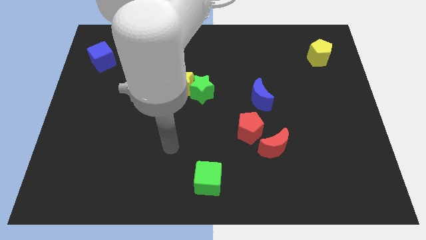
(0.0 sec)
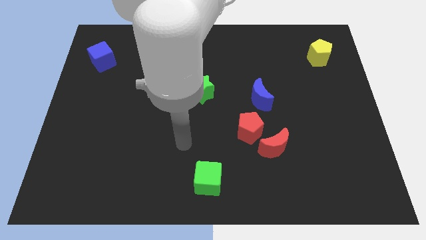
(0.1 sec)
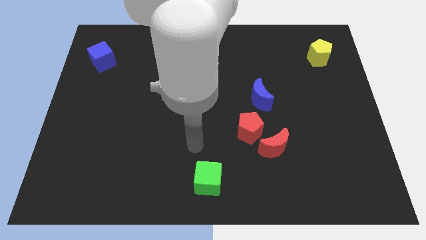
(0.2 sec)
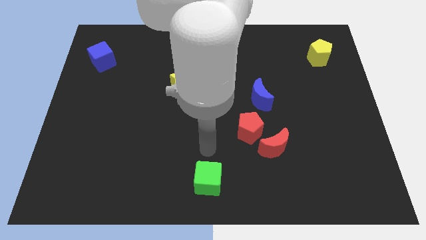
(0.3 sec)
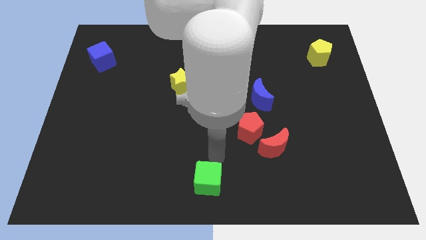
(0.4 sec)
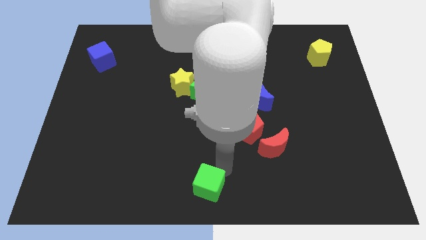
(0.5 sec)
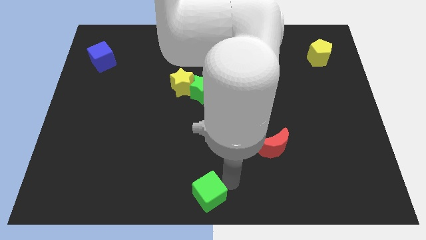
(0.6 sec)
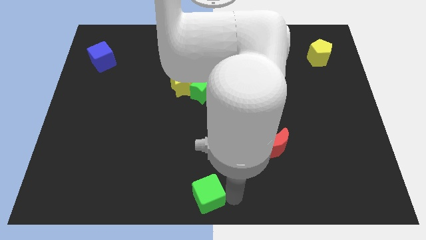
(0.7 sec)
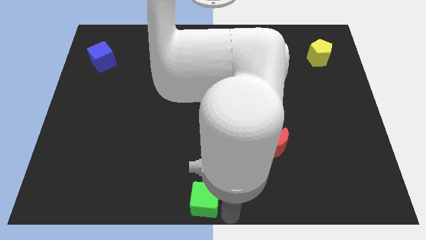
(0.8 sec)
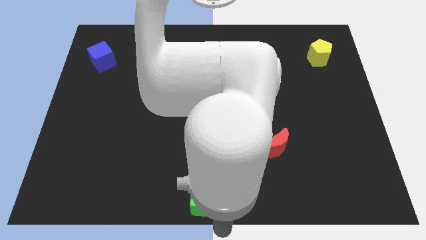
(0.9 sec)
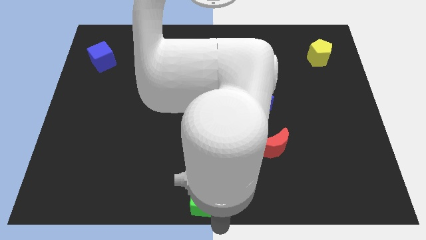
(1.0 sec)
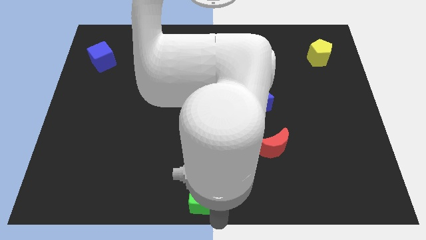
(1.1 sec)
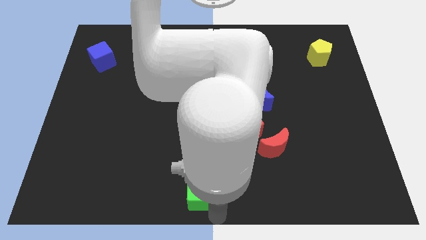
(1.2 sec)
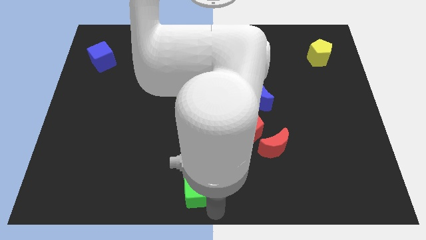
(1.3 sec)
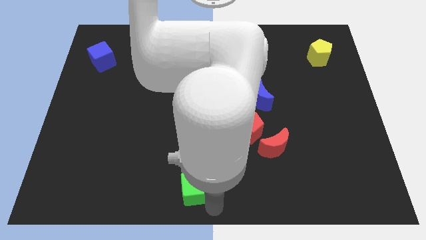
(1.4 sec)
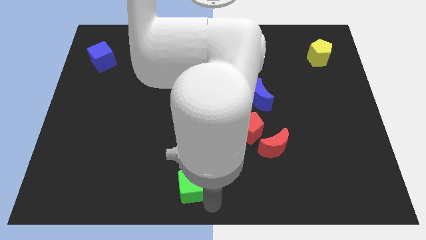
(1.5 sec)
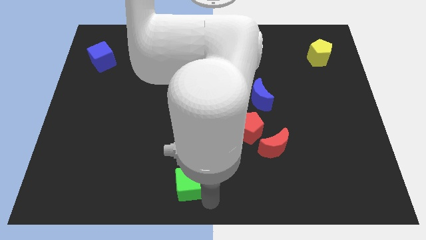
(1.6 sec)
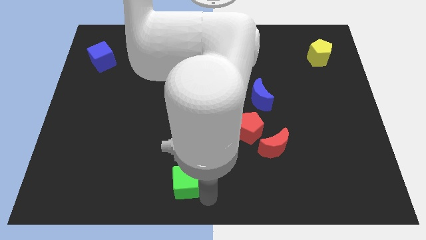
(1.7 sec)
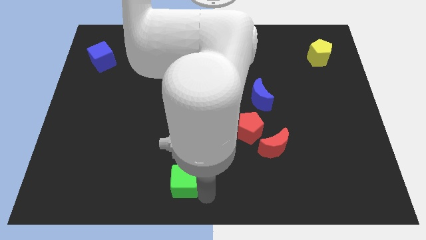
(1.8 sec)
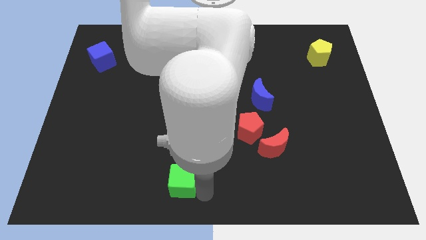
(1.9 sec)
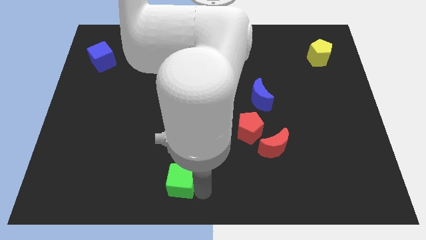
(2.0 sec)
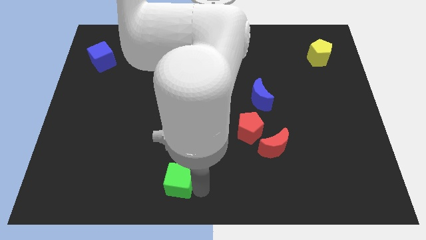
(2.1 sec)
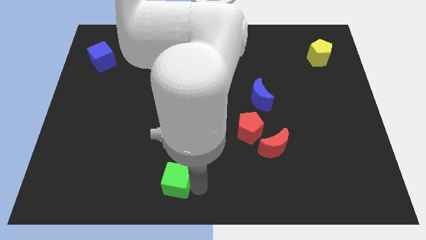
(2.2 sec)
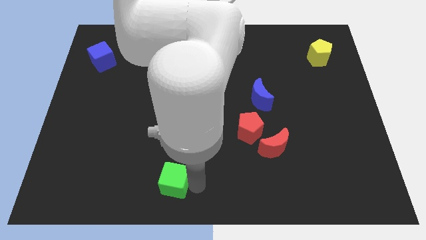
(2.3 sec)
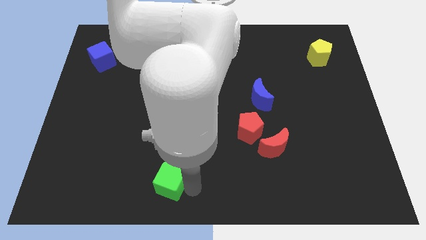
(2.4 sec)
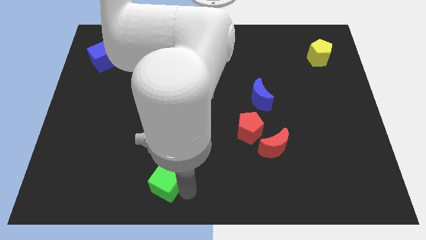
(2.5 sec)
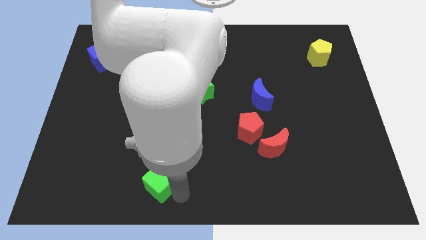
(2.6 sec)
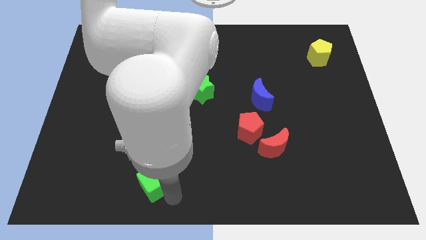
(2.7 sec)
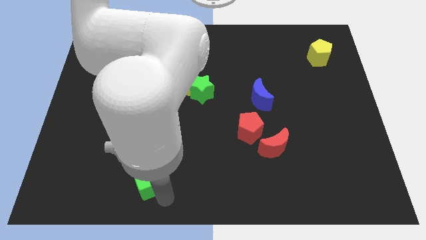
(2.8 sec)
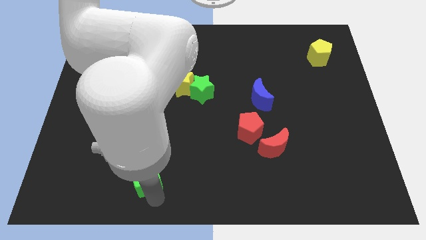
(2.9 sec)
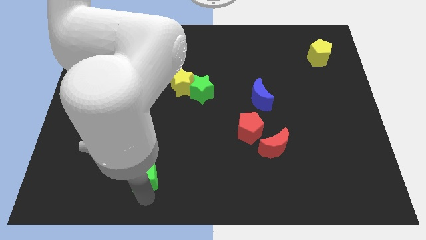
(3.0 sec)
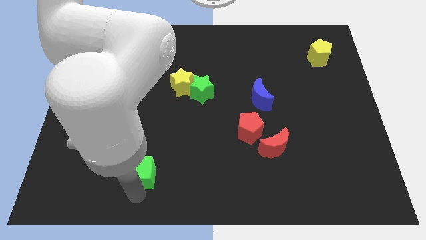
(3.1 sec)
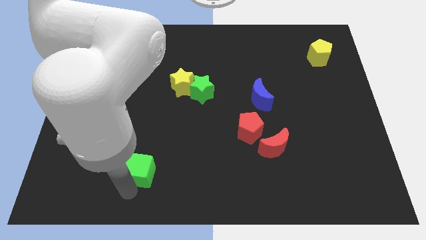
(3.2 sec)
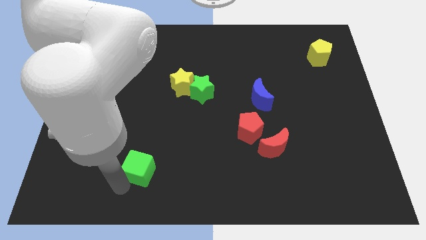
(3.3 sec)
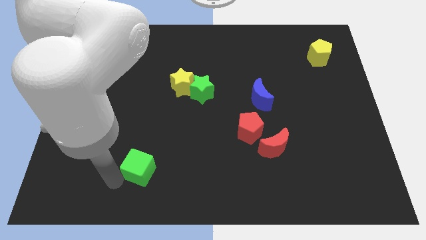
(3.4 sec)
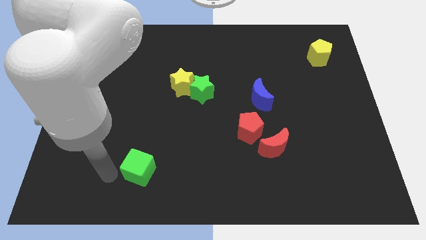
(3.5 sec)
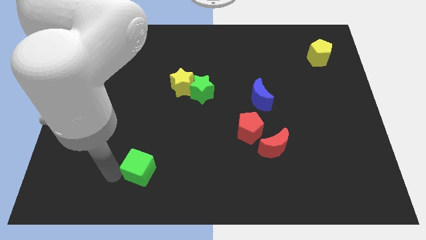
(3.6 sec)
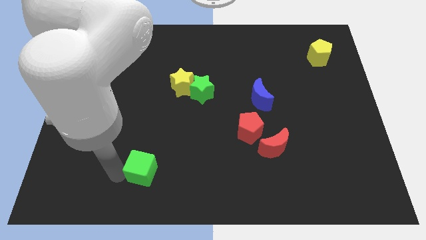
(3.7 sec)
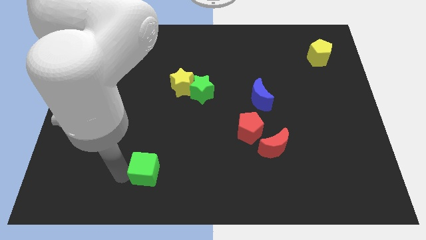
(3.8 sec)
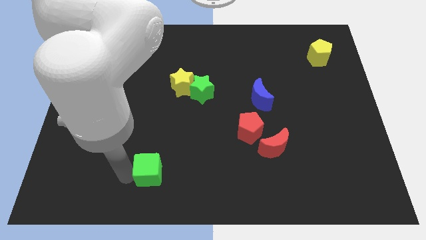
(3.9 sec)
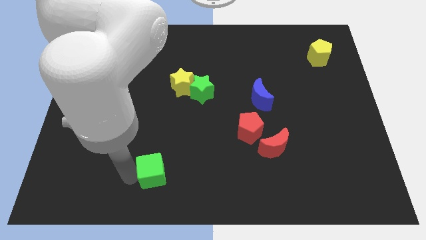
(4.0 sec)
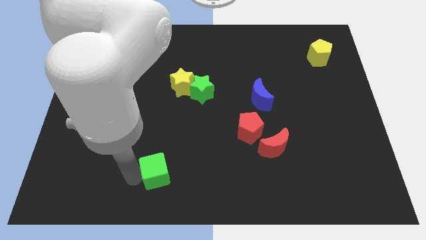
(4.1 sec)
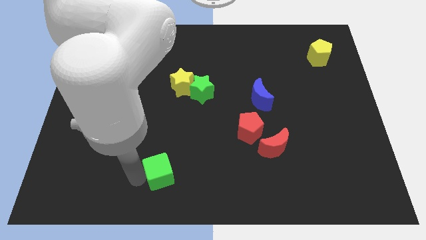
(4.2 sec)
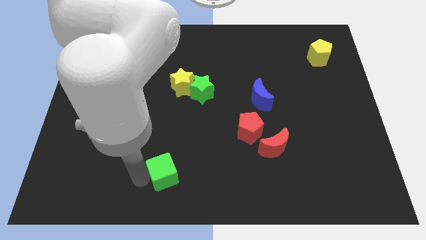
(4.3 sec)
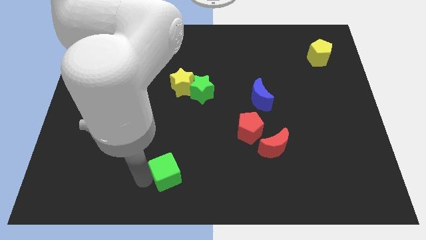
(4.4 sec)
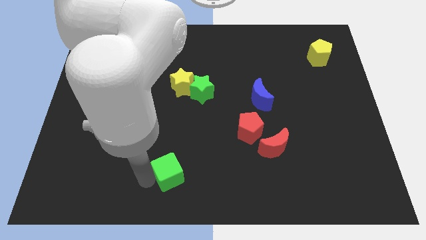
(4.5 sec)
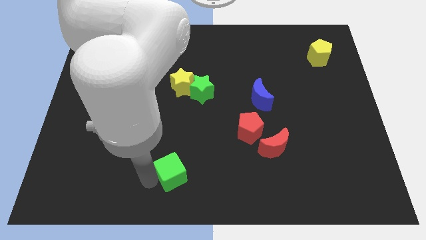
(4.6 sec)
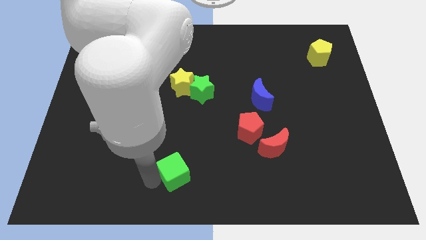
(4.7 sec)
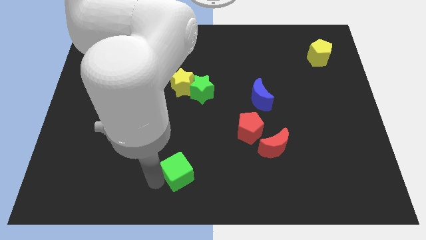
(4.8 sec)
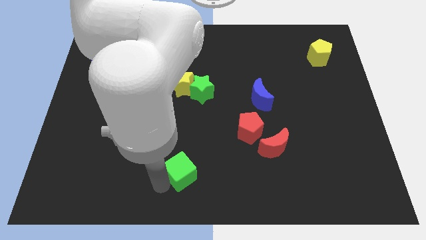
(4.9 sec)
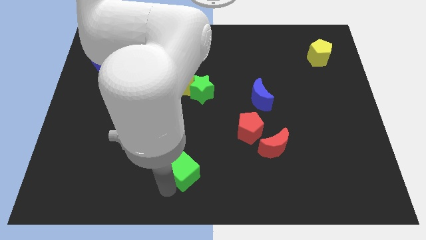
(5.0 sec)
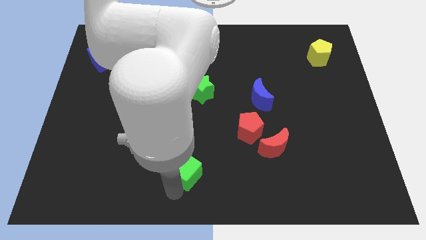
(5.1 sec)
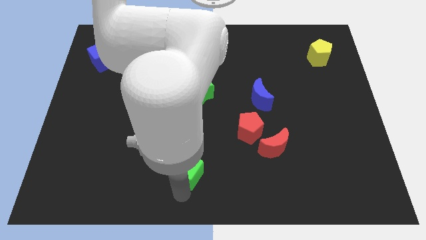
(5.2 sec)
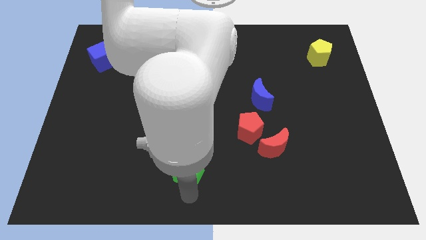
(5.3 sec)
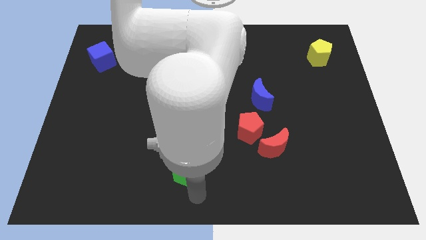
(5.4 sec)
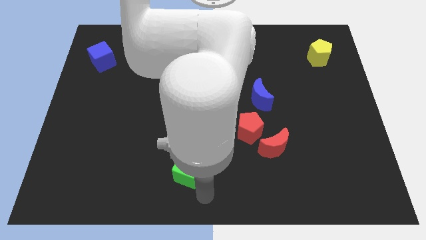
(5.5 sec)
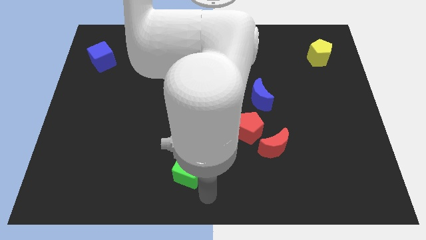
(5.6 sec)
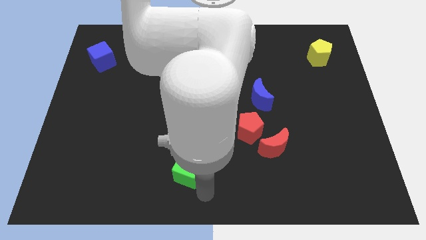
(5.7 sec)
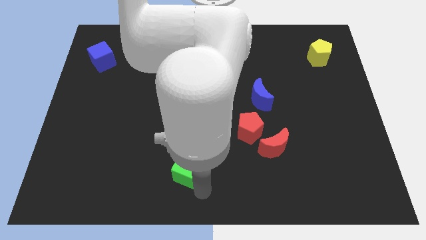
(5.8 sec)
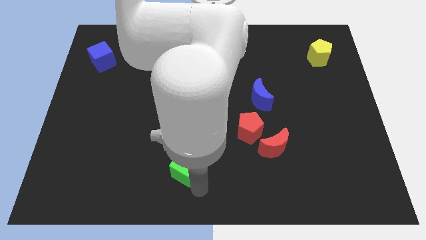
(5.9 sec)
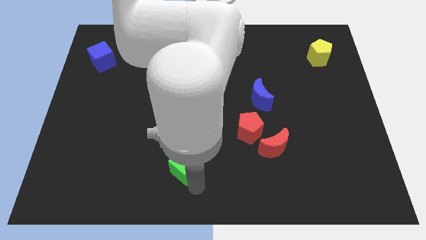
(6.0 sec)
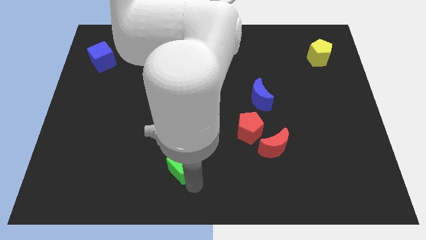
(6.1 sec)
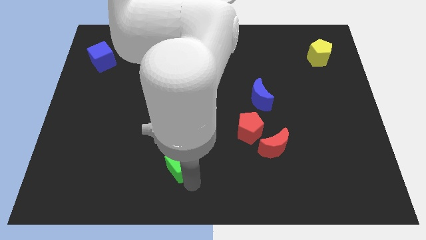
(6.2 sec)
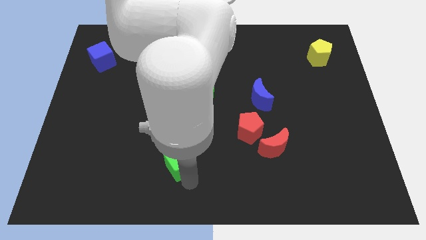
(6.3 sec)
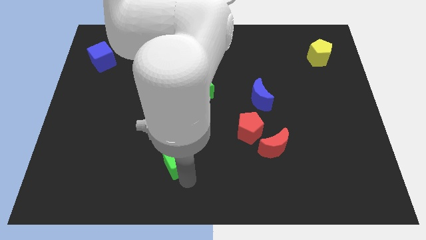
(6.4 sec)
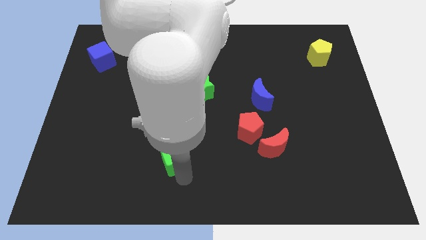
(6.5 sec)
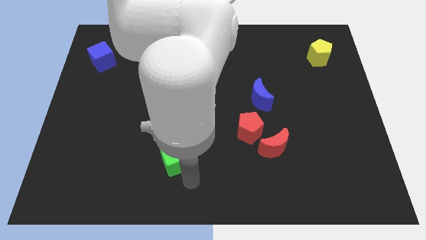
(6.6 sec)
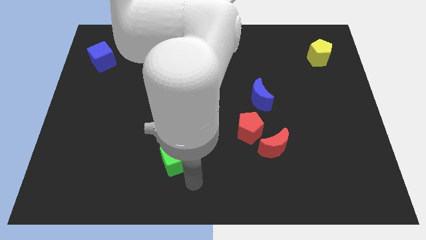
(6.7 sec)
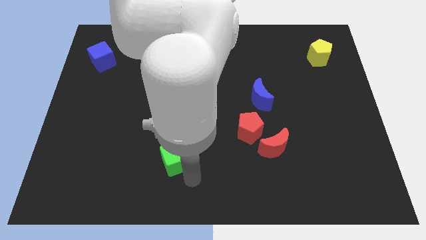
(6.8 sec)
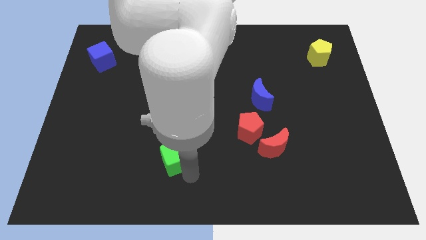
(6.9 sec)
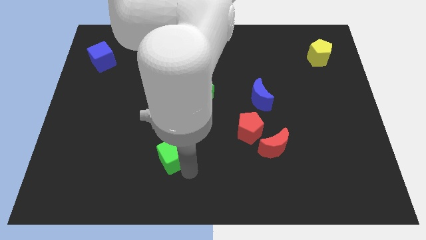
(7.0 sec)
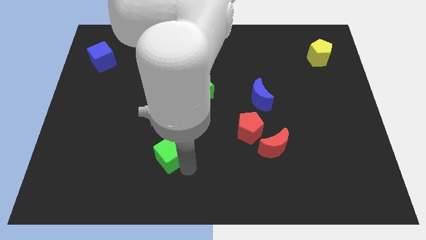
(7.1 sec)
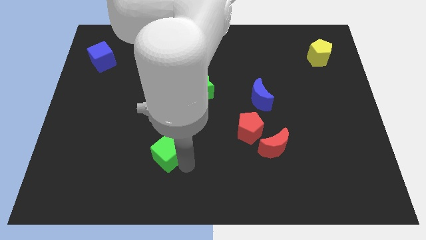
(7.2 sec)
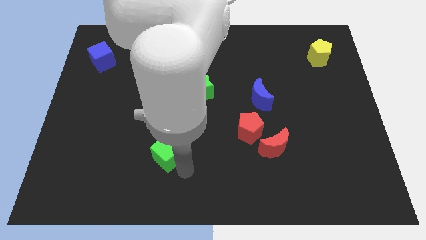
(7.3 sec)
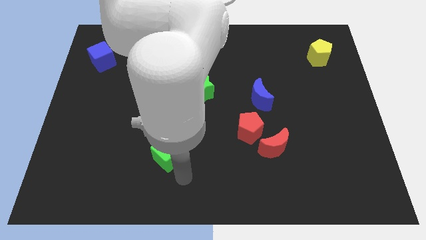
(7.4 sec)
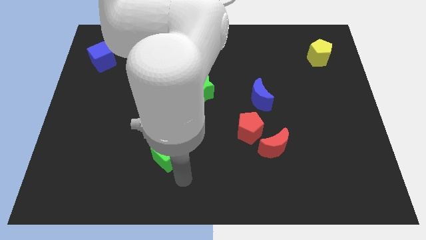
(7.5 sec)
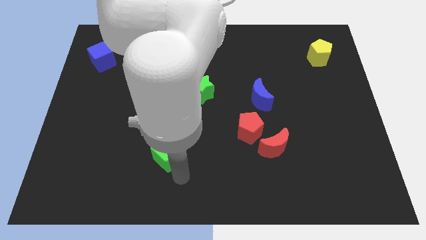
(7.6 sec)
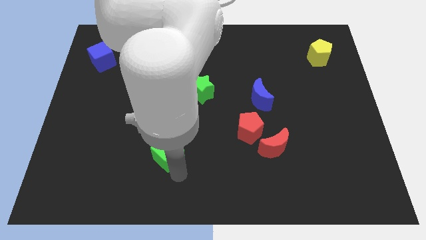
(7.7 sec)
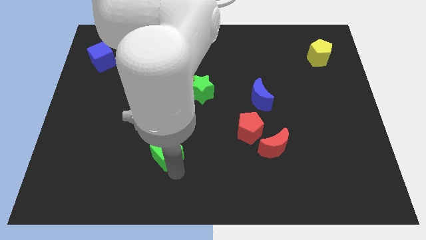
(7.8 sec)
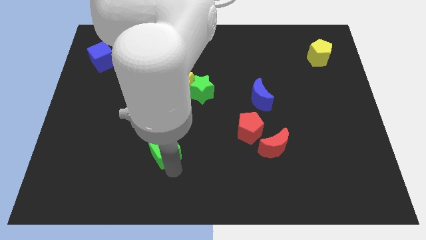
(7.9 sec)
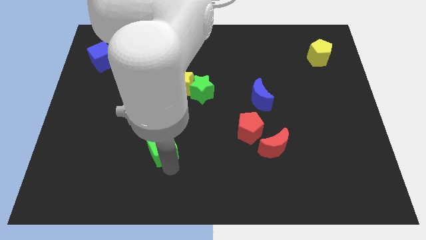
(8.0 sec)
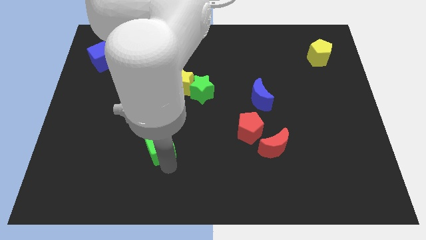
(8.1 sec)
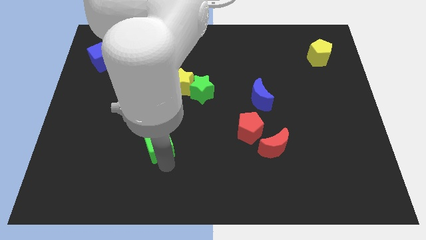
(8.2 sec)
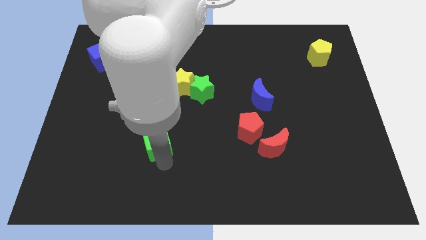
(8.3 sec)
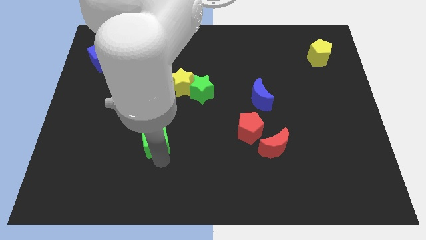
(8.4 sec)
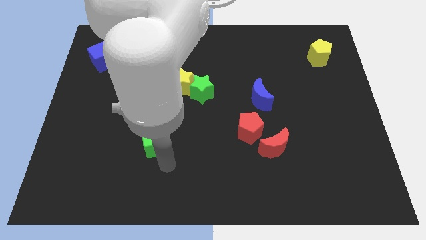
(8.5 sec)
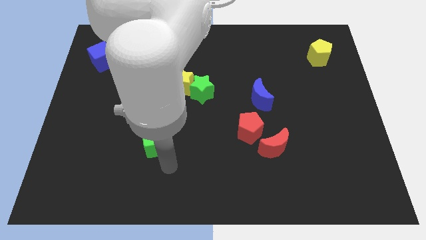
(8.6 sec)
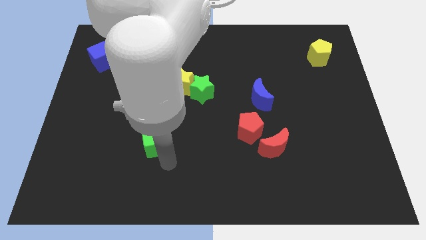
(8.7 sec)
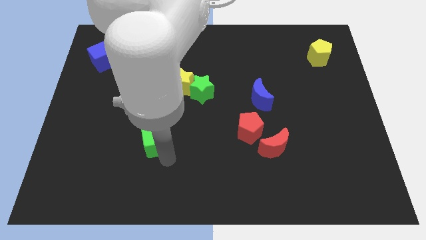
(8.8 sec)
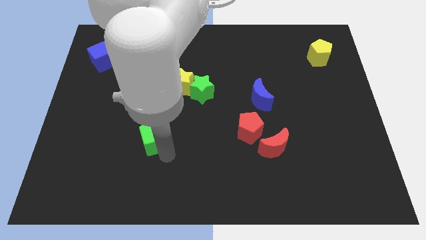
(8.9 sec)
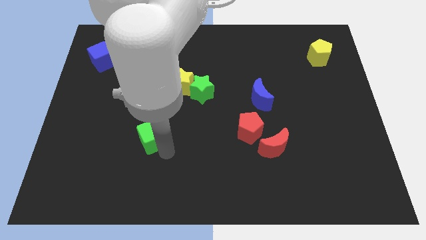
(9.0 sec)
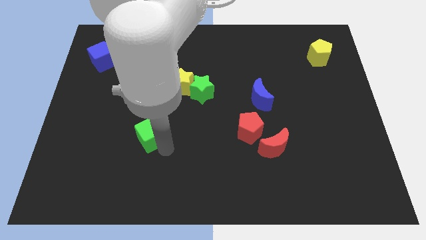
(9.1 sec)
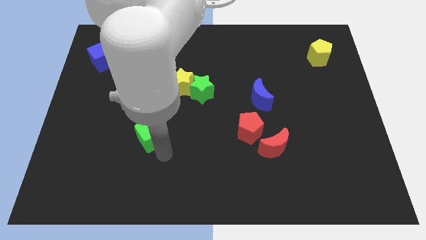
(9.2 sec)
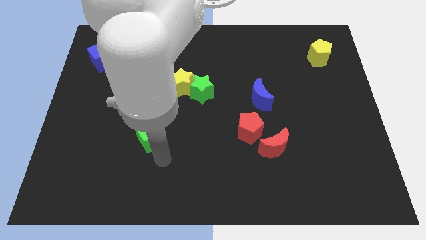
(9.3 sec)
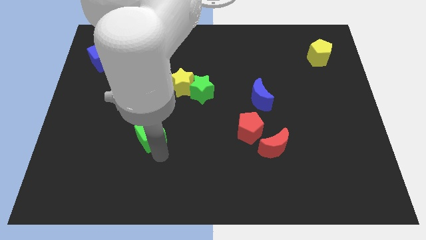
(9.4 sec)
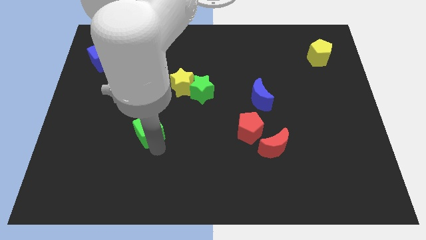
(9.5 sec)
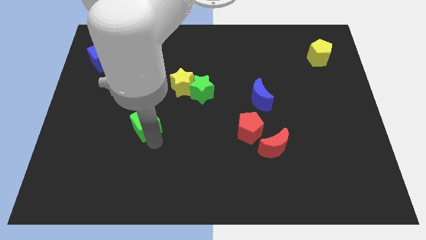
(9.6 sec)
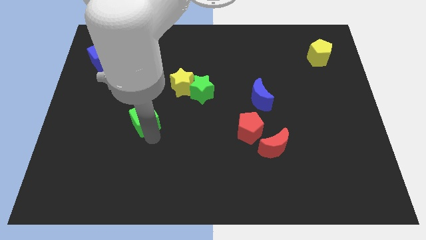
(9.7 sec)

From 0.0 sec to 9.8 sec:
move the green cube up and to the left diagonally
